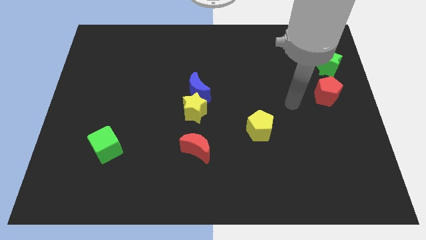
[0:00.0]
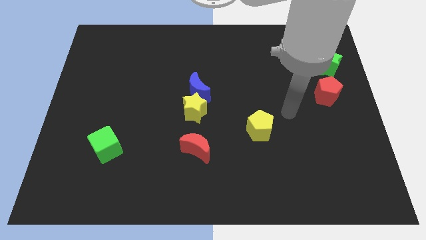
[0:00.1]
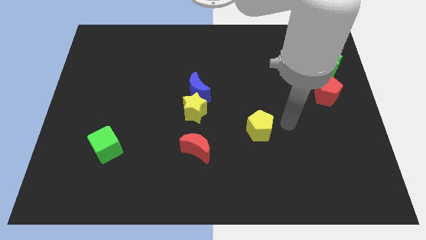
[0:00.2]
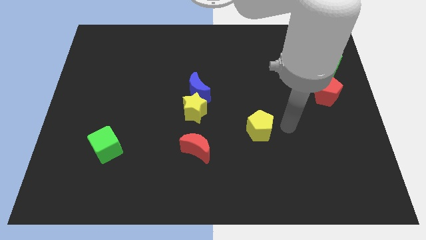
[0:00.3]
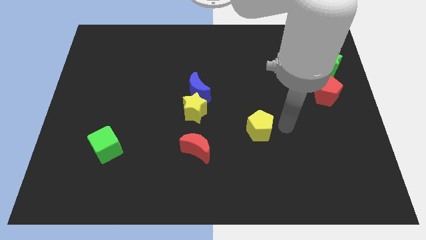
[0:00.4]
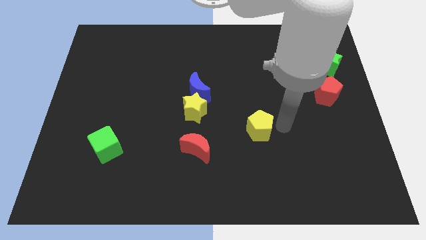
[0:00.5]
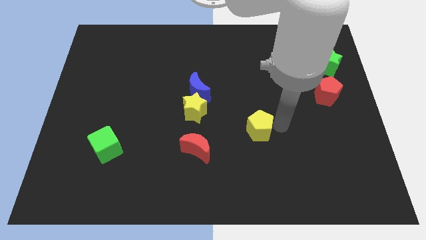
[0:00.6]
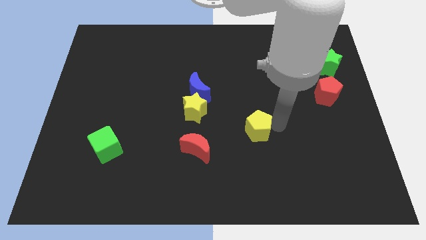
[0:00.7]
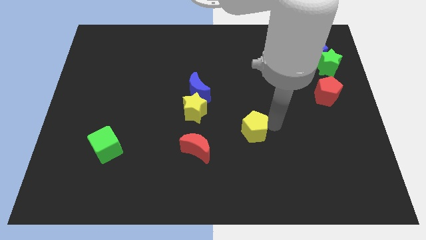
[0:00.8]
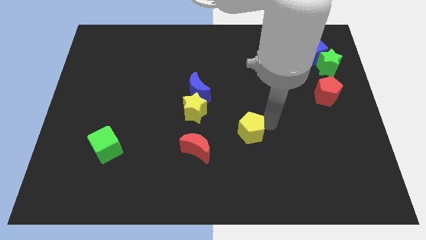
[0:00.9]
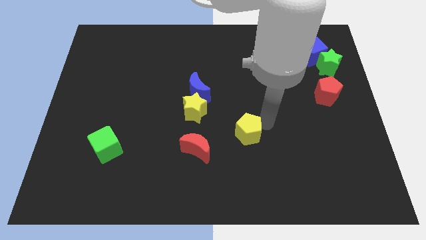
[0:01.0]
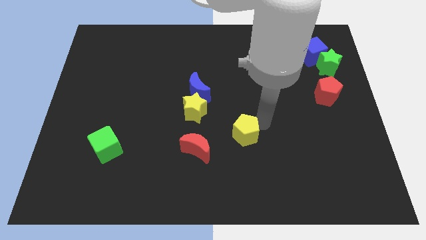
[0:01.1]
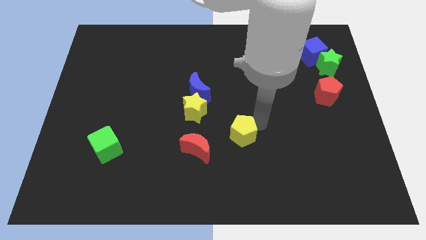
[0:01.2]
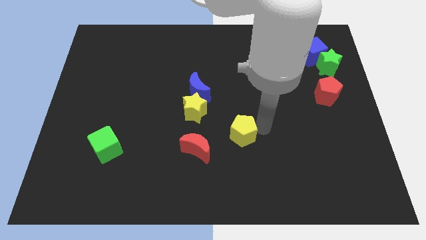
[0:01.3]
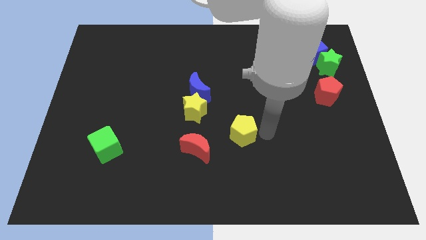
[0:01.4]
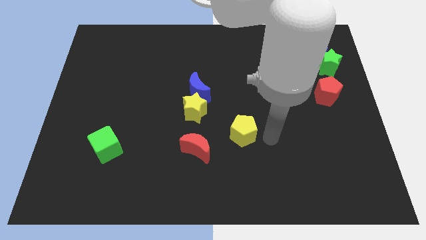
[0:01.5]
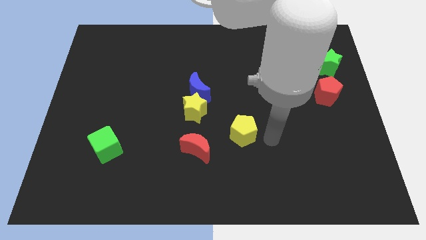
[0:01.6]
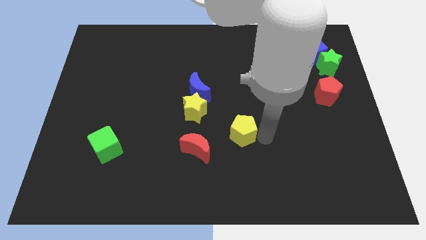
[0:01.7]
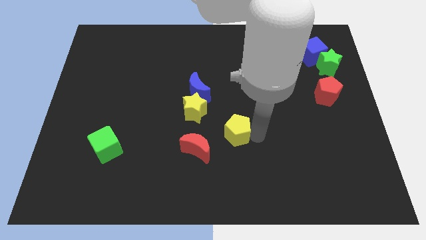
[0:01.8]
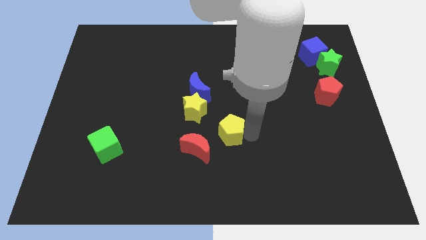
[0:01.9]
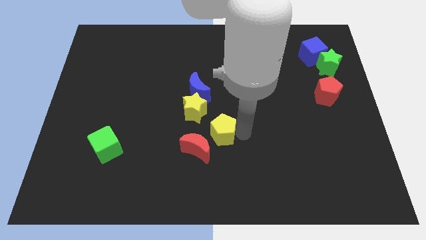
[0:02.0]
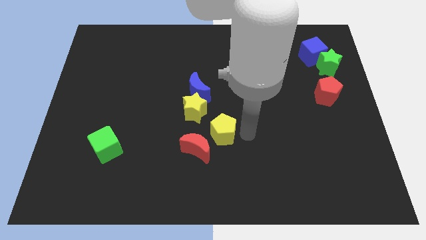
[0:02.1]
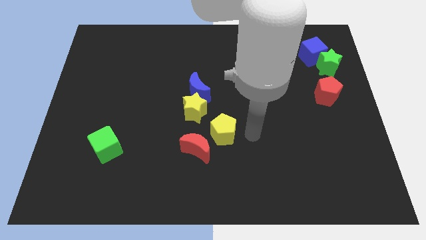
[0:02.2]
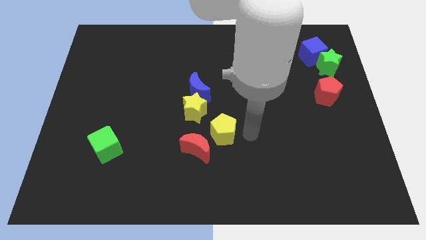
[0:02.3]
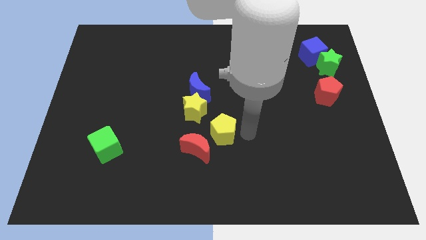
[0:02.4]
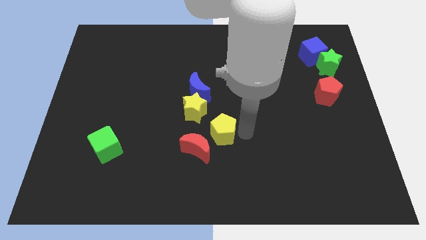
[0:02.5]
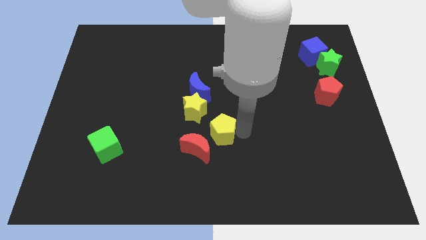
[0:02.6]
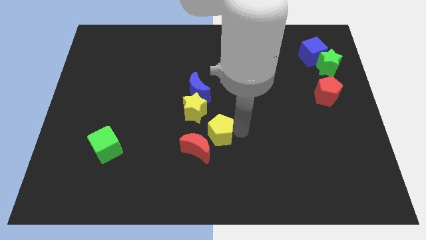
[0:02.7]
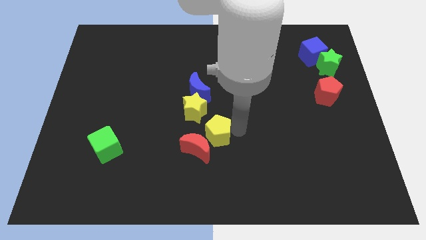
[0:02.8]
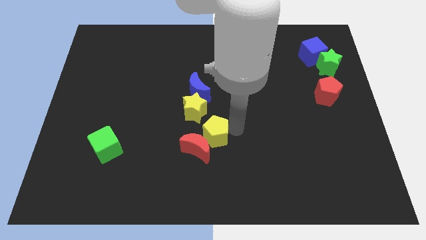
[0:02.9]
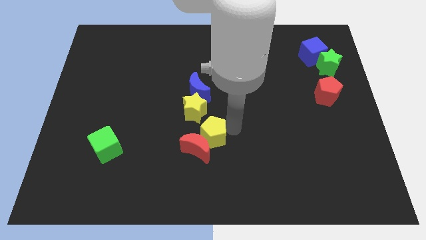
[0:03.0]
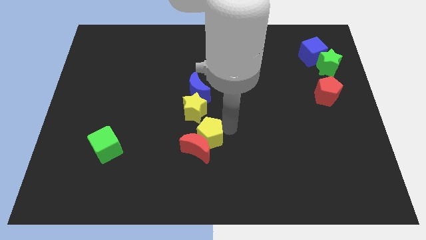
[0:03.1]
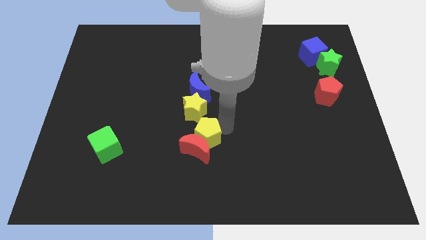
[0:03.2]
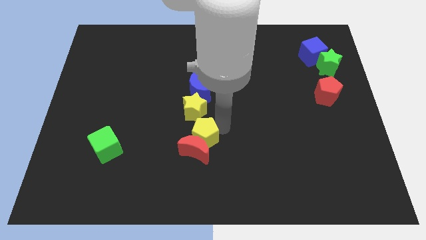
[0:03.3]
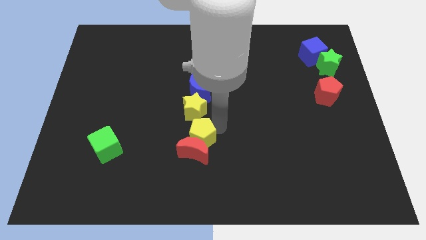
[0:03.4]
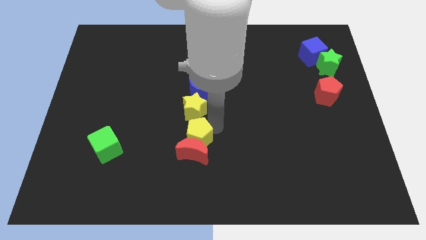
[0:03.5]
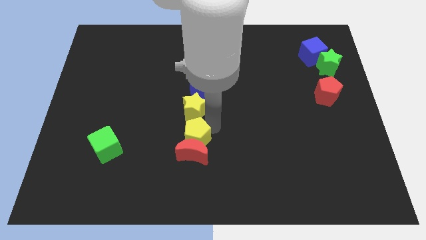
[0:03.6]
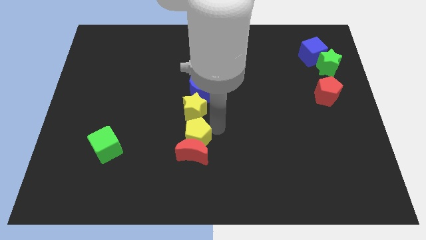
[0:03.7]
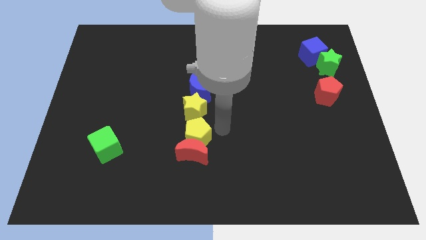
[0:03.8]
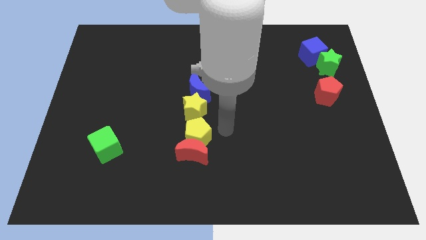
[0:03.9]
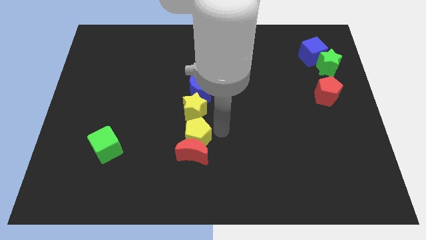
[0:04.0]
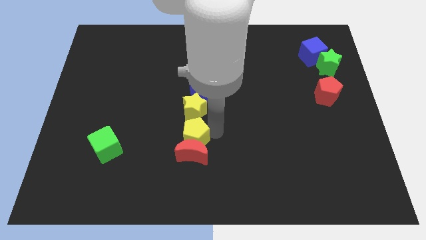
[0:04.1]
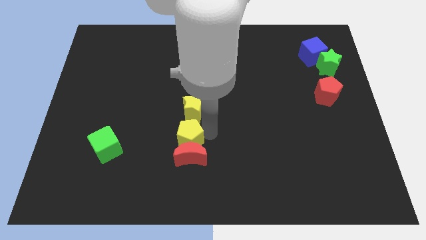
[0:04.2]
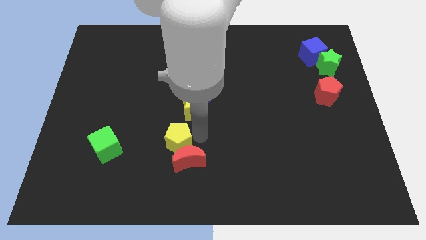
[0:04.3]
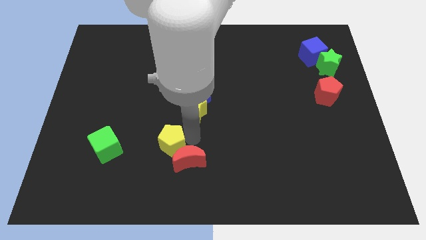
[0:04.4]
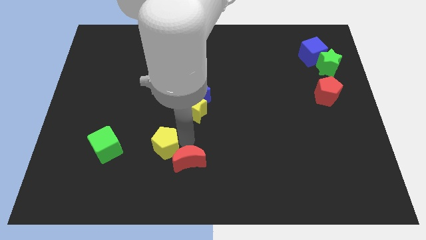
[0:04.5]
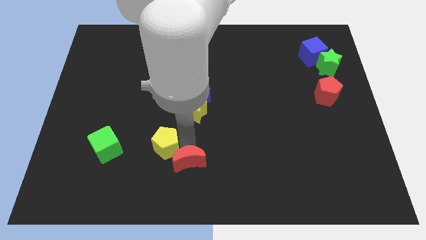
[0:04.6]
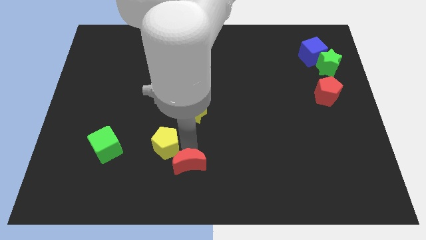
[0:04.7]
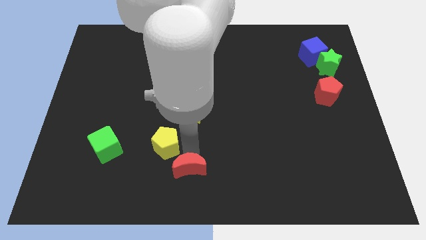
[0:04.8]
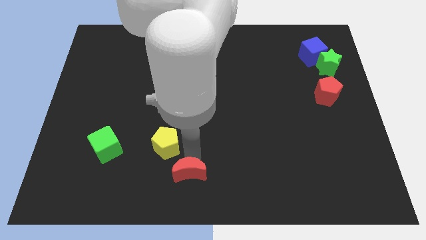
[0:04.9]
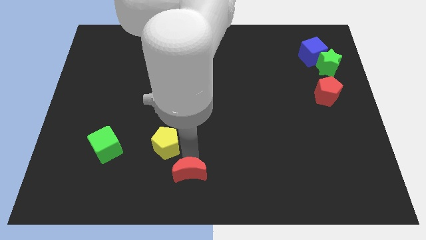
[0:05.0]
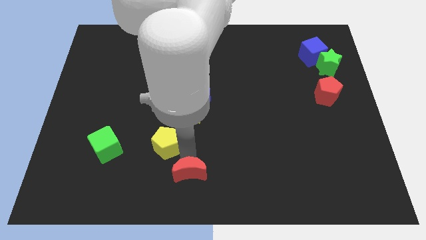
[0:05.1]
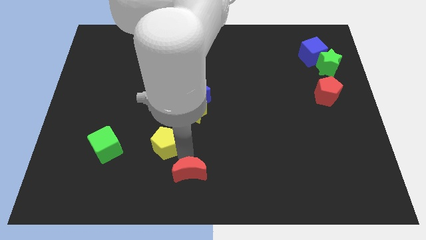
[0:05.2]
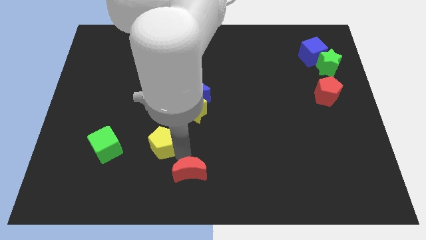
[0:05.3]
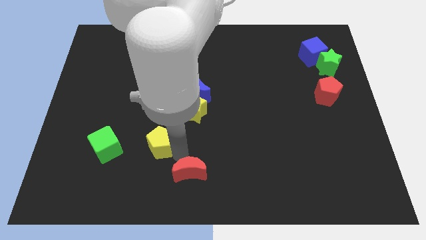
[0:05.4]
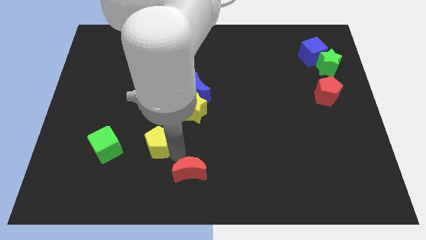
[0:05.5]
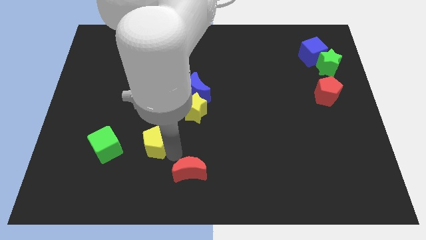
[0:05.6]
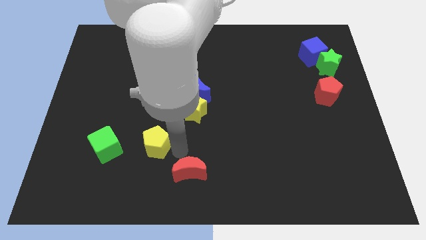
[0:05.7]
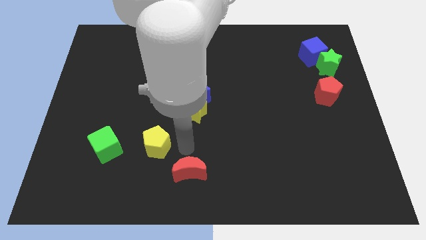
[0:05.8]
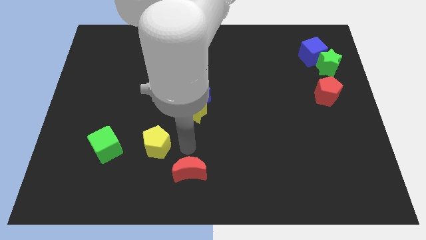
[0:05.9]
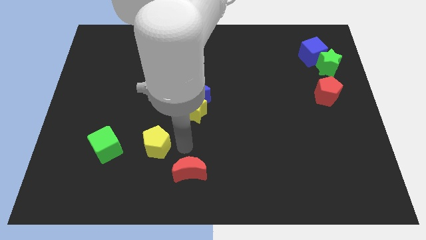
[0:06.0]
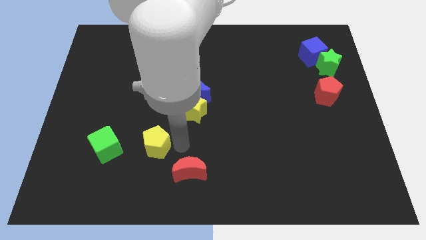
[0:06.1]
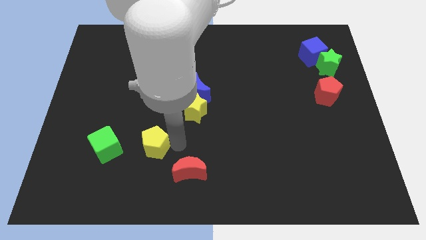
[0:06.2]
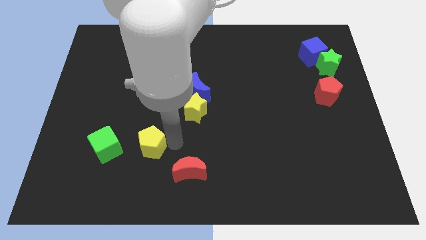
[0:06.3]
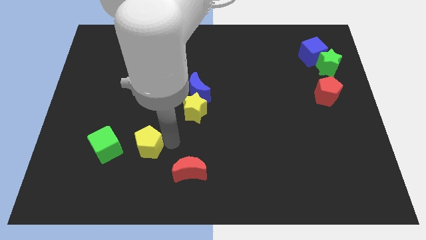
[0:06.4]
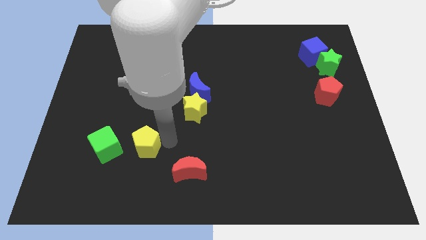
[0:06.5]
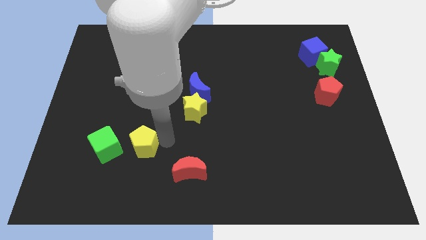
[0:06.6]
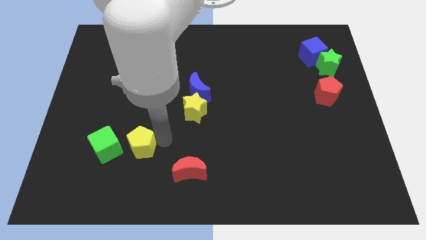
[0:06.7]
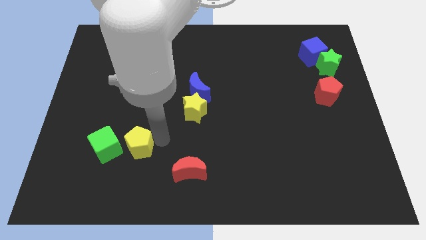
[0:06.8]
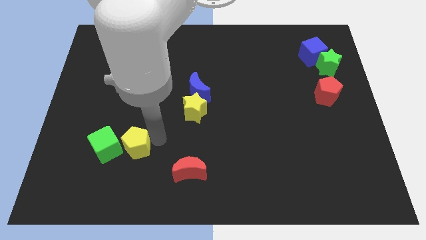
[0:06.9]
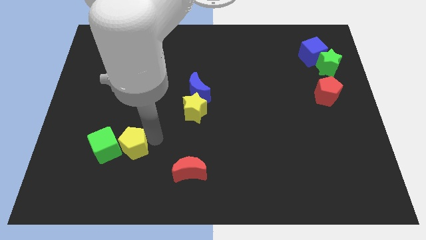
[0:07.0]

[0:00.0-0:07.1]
move the yellow pentagon next to the green cube

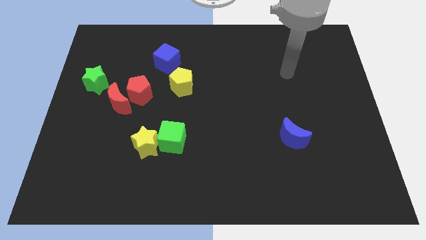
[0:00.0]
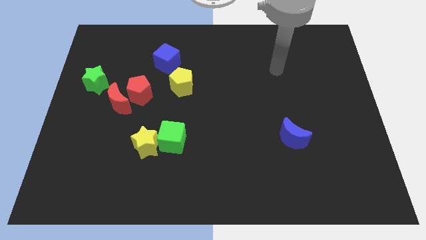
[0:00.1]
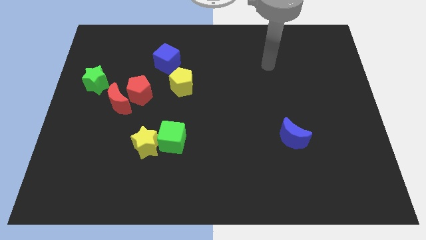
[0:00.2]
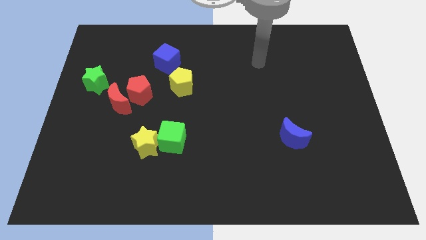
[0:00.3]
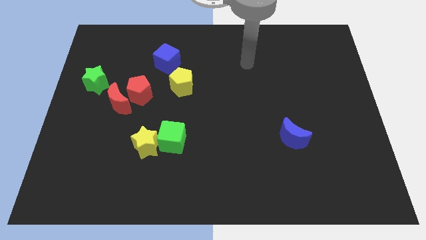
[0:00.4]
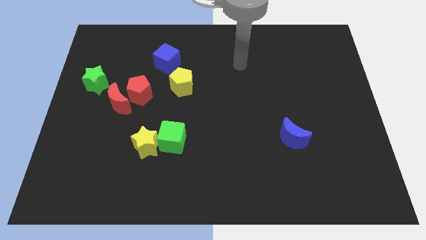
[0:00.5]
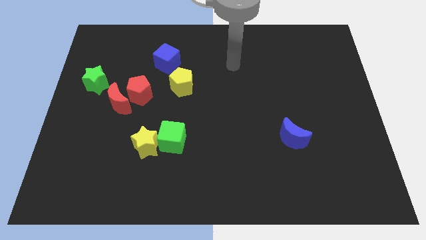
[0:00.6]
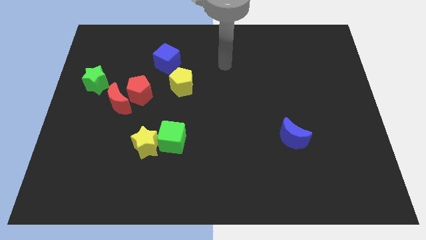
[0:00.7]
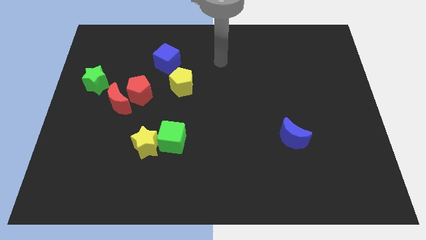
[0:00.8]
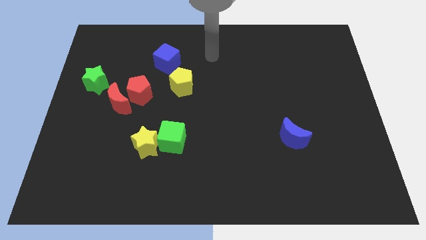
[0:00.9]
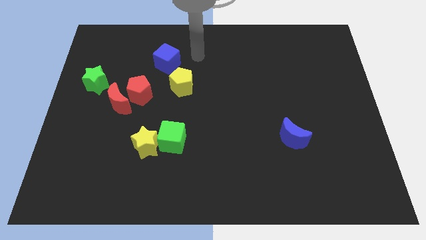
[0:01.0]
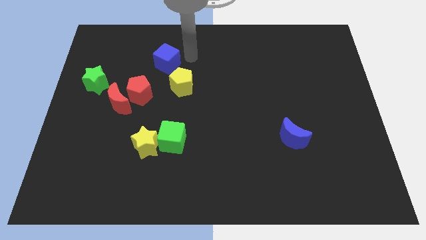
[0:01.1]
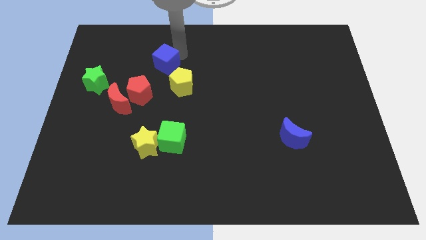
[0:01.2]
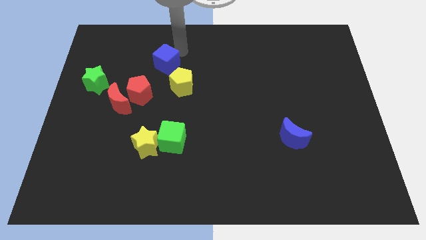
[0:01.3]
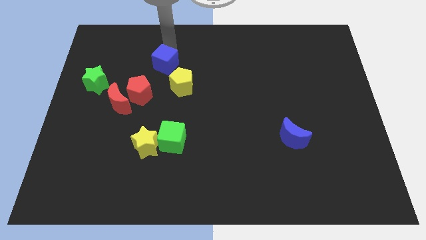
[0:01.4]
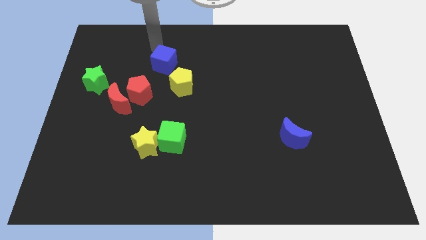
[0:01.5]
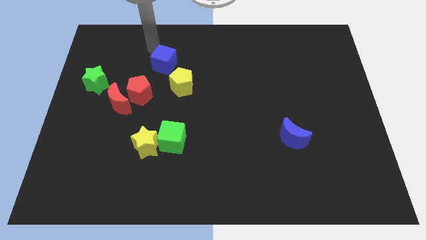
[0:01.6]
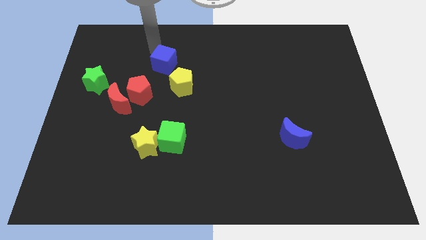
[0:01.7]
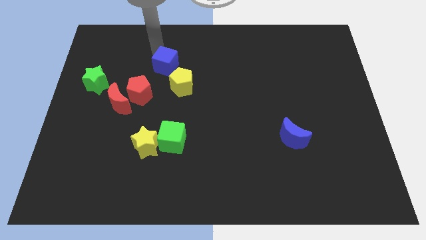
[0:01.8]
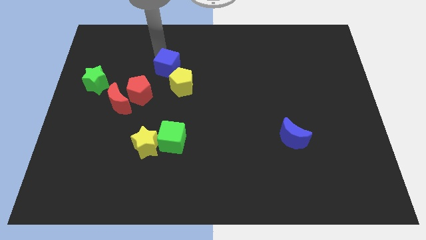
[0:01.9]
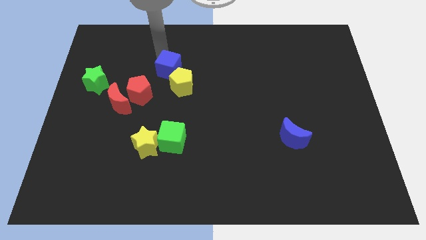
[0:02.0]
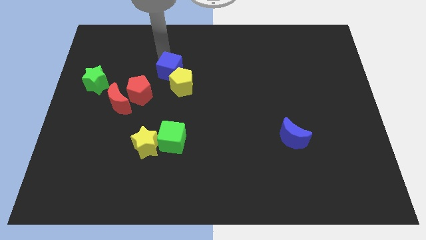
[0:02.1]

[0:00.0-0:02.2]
push the blue cube to the yellow pentagon
